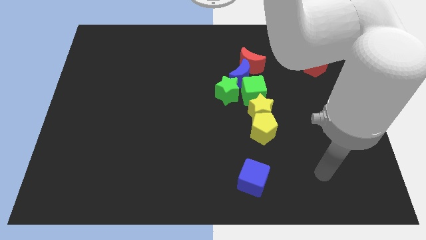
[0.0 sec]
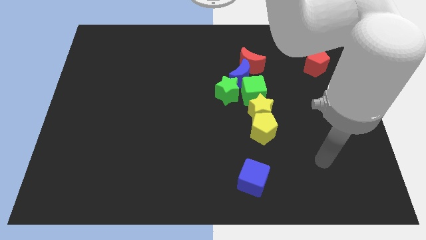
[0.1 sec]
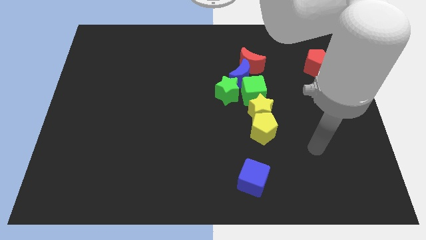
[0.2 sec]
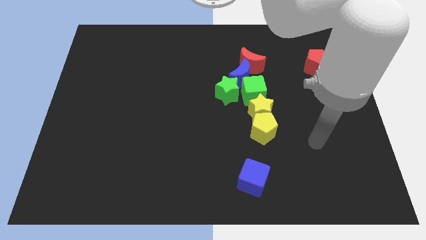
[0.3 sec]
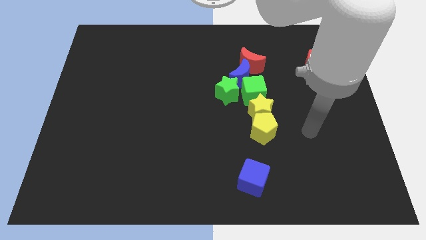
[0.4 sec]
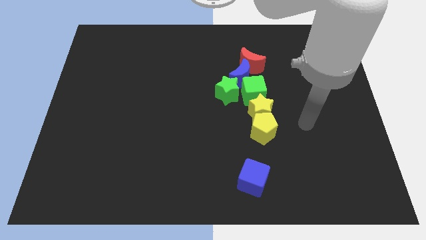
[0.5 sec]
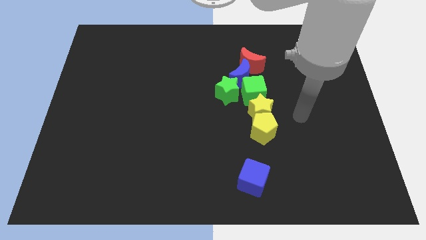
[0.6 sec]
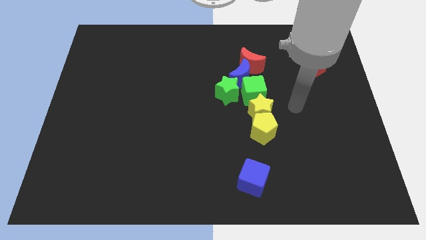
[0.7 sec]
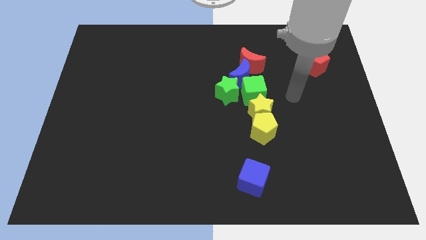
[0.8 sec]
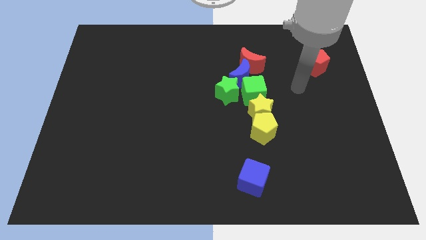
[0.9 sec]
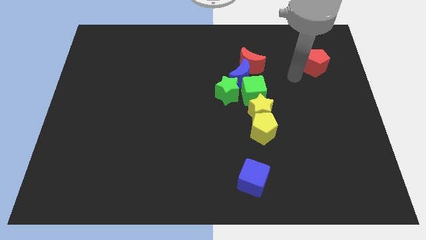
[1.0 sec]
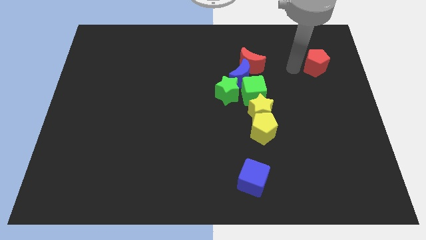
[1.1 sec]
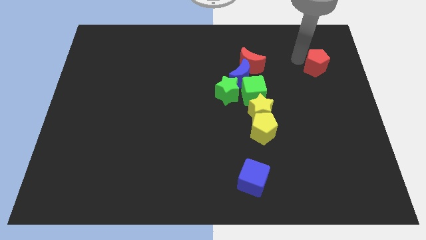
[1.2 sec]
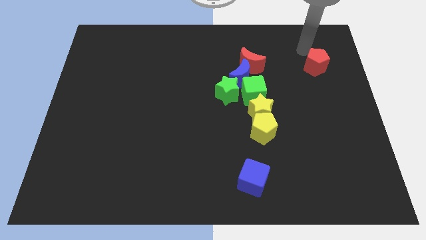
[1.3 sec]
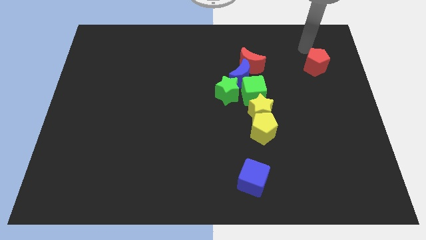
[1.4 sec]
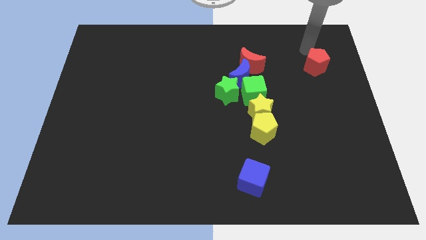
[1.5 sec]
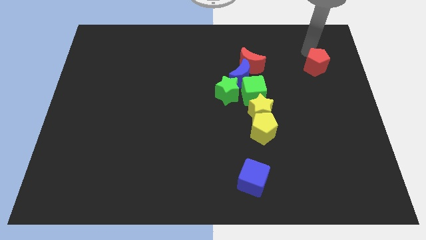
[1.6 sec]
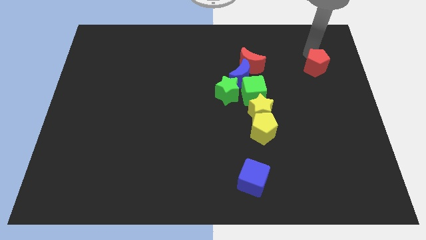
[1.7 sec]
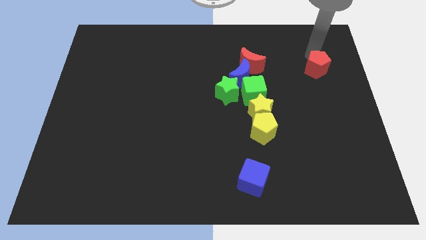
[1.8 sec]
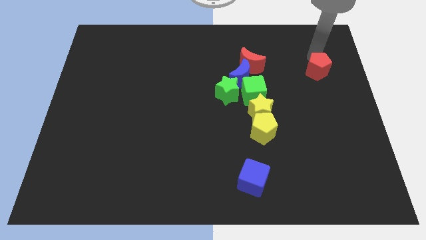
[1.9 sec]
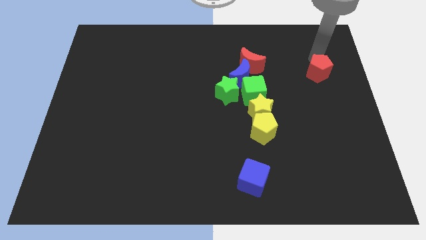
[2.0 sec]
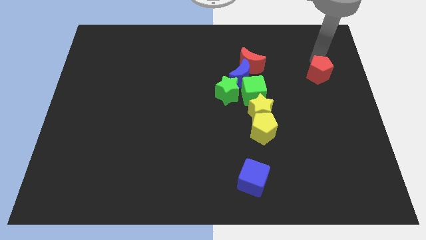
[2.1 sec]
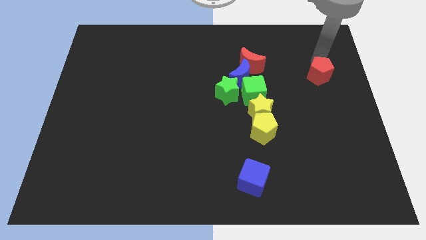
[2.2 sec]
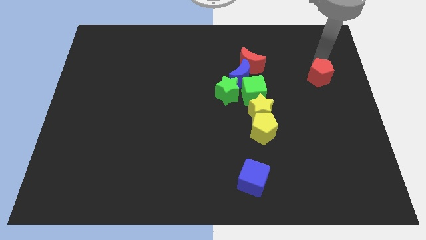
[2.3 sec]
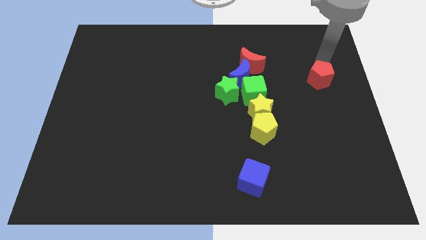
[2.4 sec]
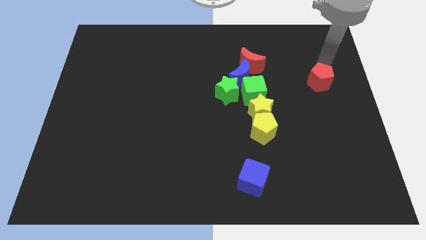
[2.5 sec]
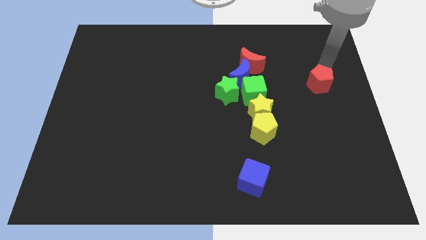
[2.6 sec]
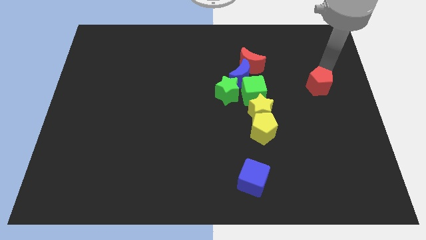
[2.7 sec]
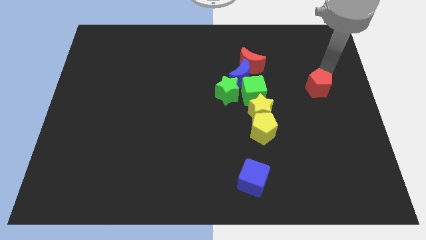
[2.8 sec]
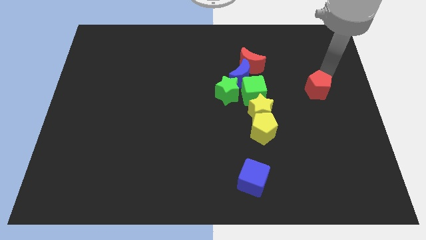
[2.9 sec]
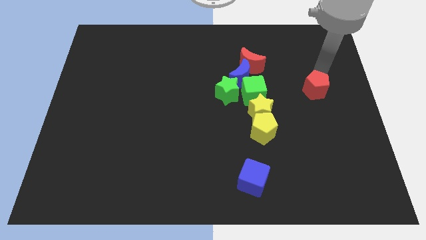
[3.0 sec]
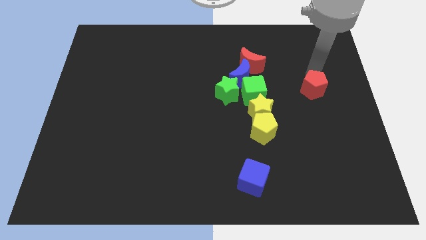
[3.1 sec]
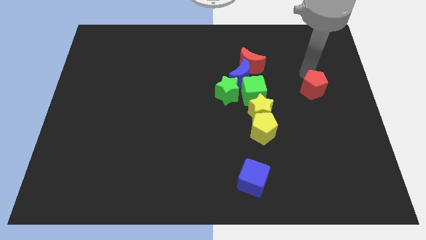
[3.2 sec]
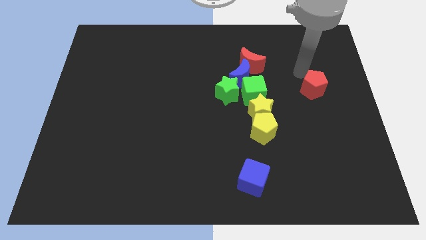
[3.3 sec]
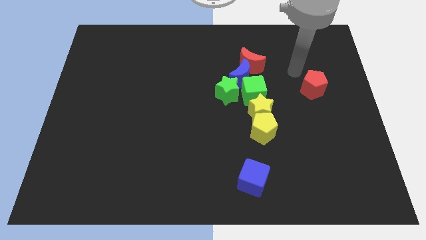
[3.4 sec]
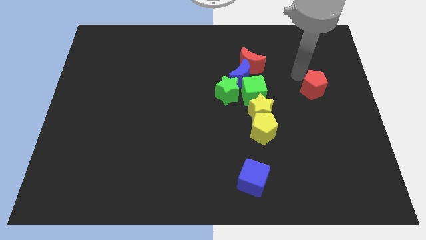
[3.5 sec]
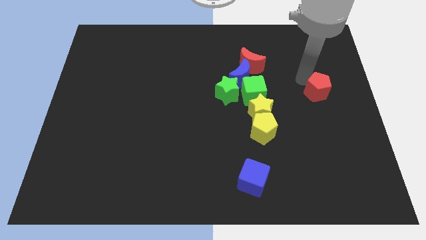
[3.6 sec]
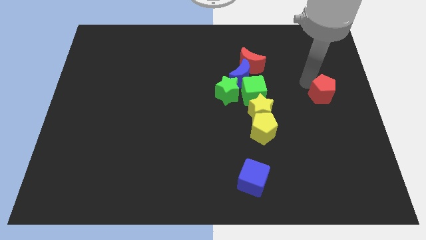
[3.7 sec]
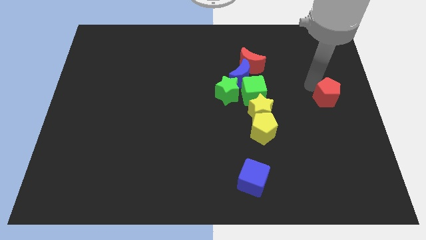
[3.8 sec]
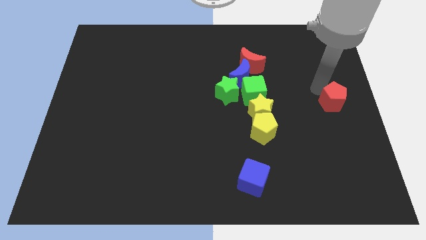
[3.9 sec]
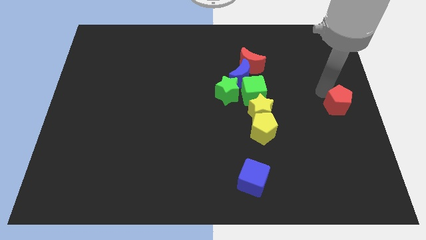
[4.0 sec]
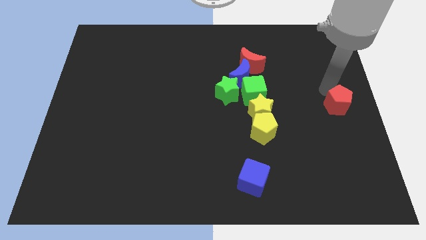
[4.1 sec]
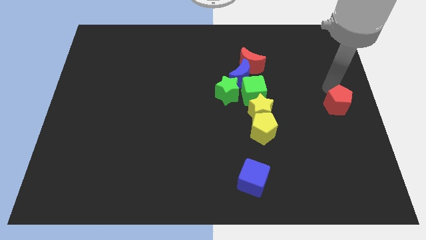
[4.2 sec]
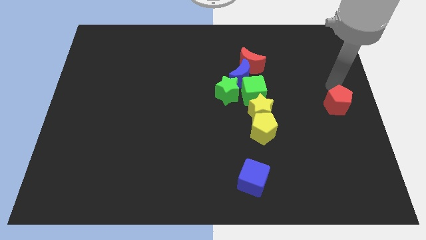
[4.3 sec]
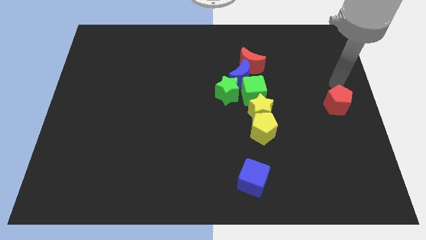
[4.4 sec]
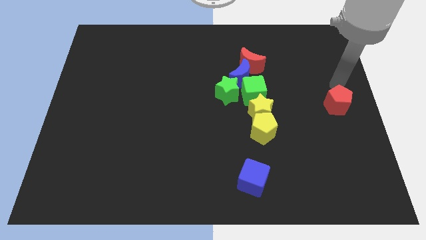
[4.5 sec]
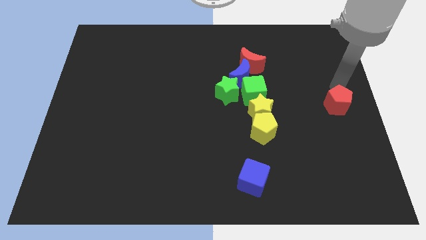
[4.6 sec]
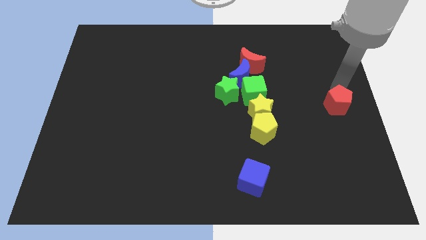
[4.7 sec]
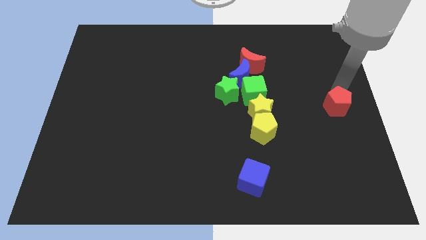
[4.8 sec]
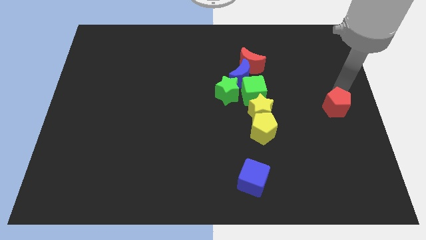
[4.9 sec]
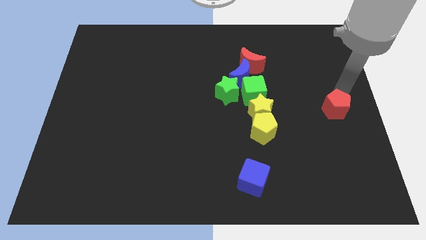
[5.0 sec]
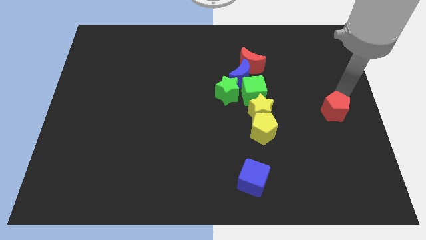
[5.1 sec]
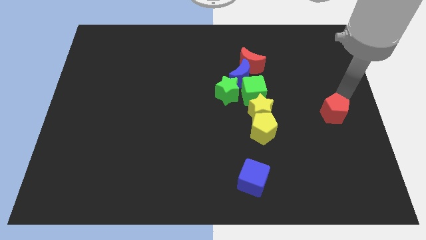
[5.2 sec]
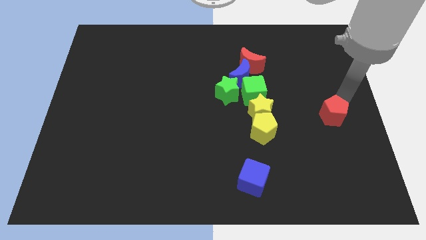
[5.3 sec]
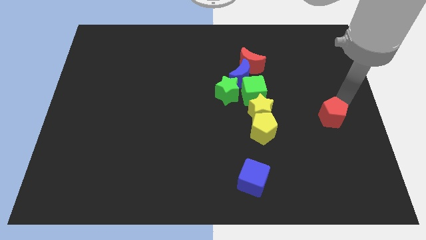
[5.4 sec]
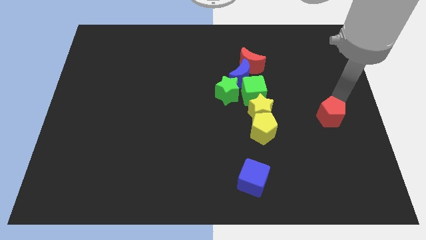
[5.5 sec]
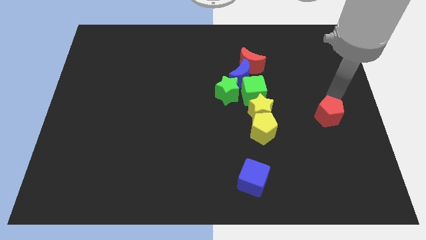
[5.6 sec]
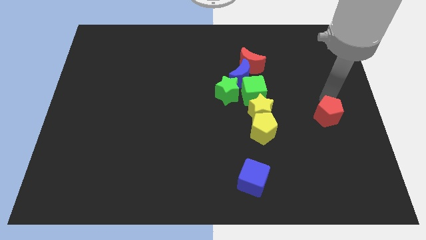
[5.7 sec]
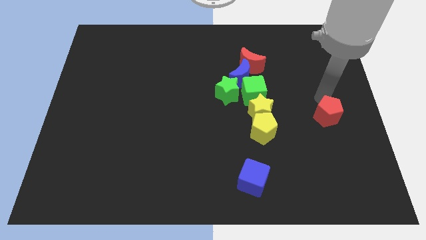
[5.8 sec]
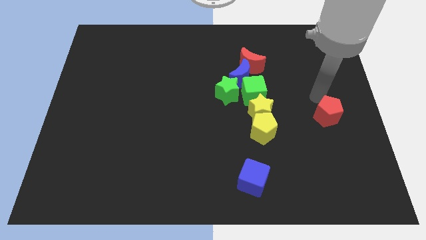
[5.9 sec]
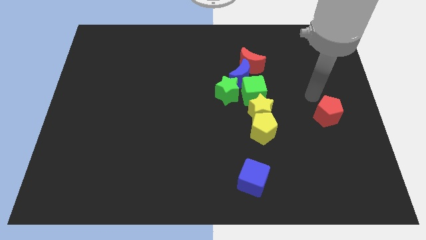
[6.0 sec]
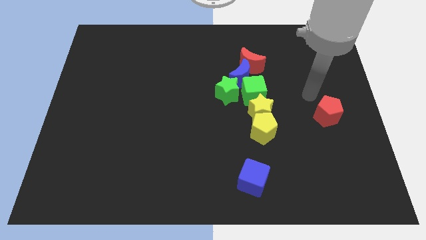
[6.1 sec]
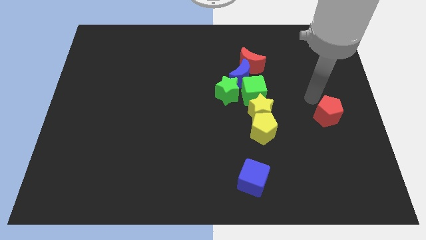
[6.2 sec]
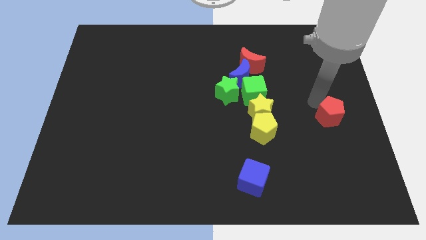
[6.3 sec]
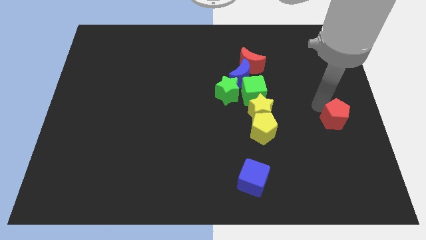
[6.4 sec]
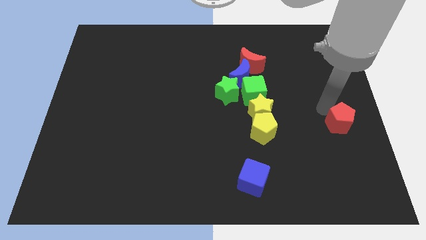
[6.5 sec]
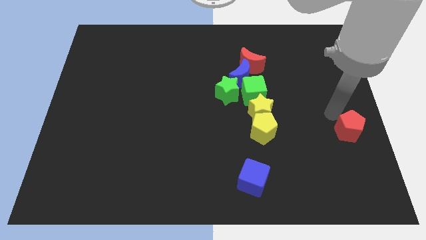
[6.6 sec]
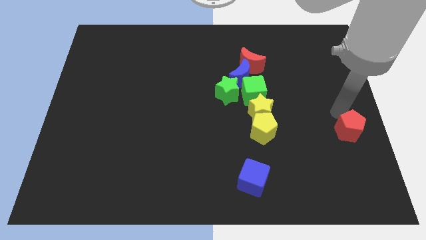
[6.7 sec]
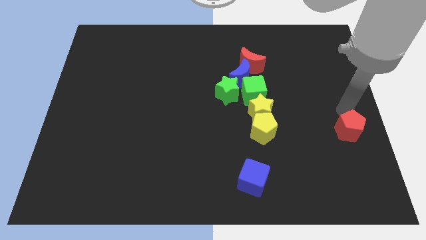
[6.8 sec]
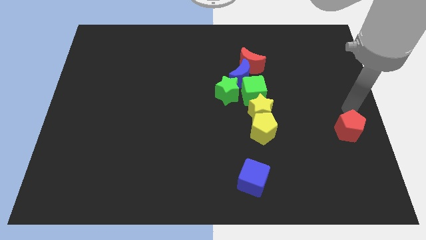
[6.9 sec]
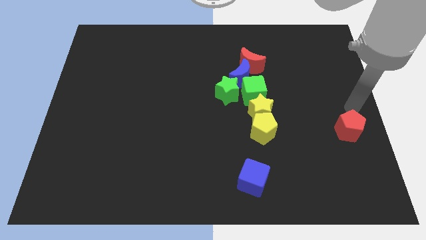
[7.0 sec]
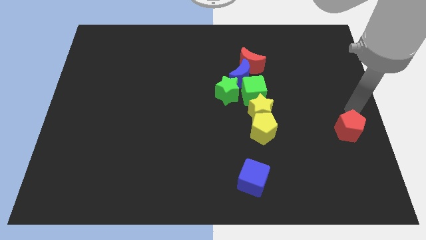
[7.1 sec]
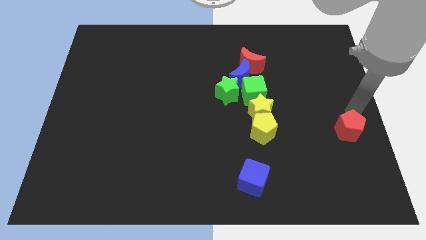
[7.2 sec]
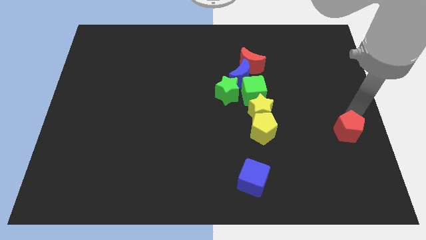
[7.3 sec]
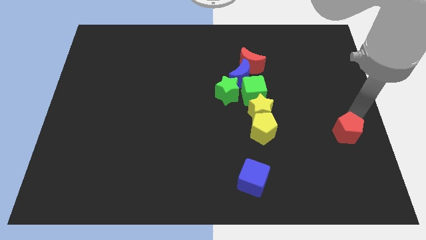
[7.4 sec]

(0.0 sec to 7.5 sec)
slide the red pentagon downwards

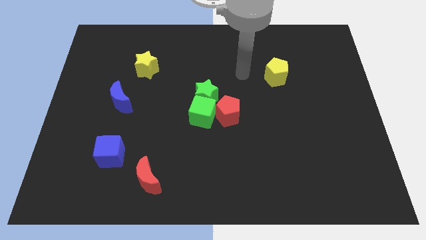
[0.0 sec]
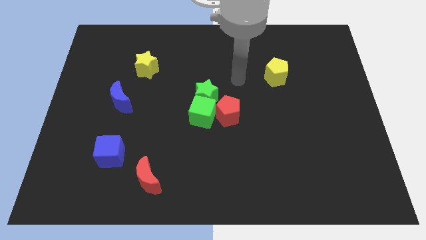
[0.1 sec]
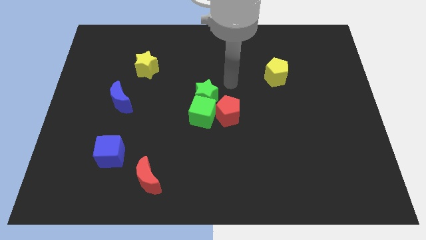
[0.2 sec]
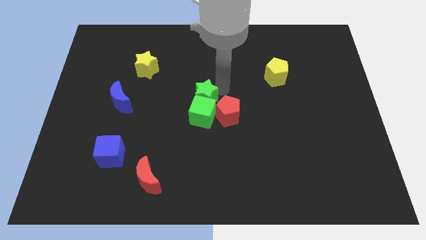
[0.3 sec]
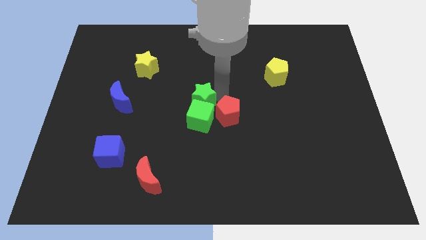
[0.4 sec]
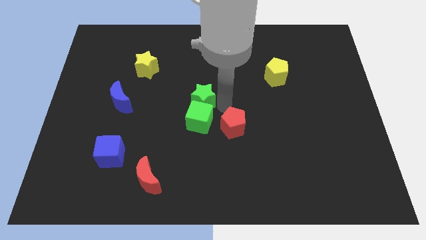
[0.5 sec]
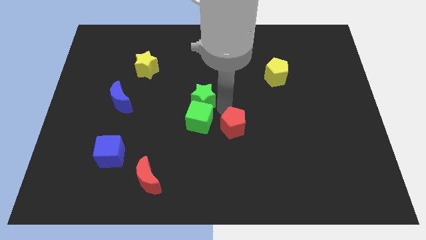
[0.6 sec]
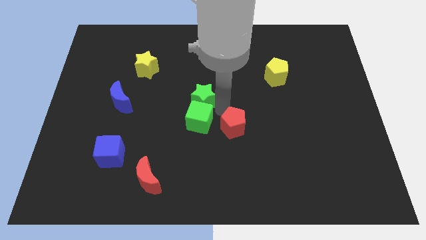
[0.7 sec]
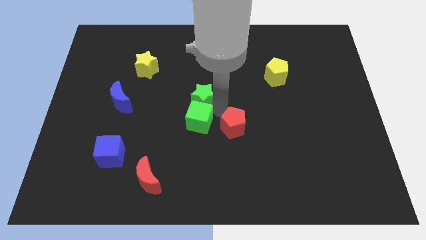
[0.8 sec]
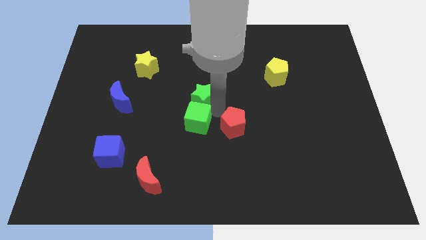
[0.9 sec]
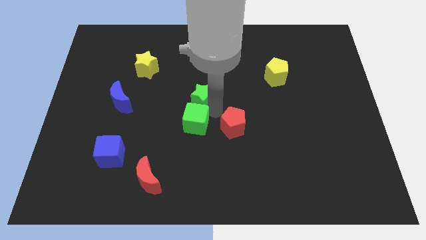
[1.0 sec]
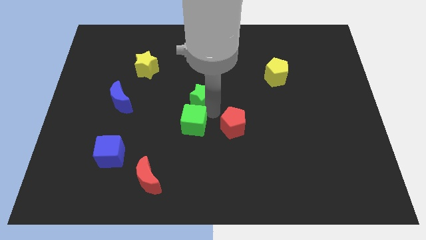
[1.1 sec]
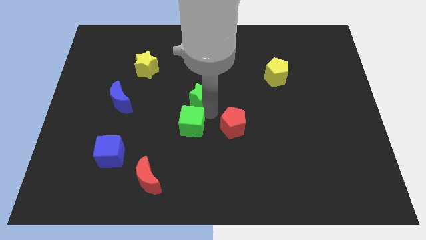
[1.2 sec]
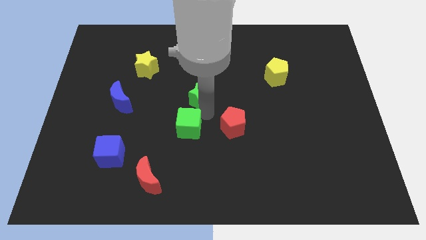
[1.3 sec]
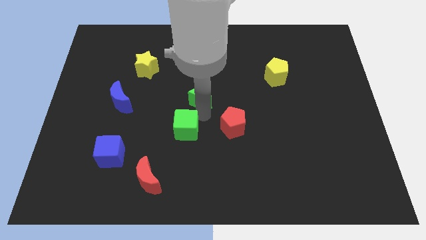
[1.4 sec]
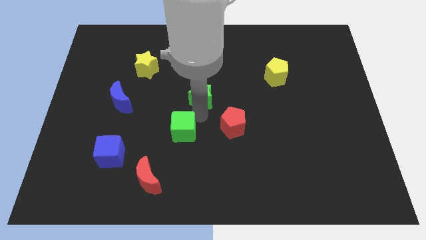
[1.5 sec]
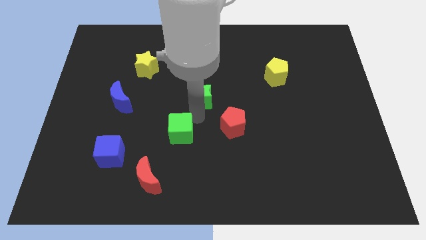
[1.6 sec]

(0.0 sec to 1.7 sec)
slightly slide the green cube down and left
